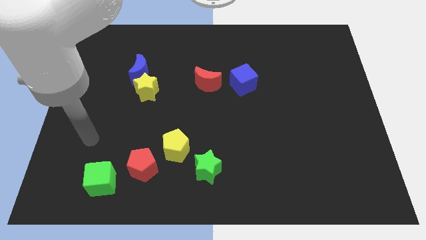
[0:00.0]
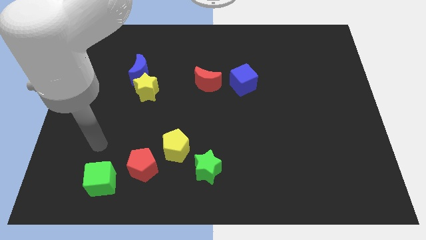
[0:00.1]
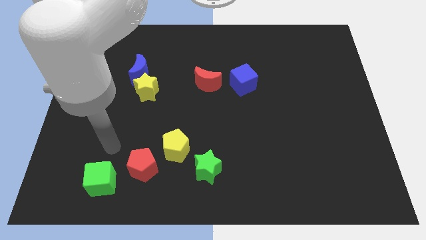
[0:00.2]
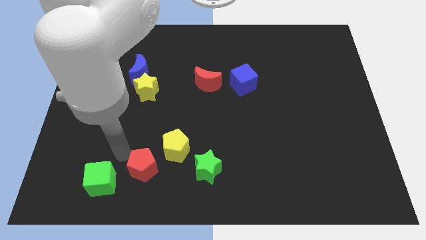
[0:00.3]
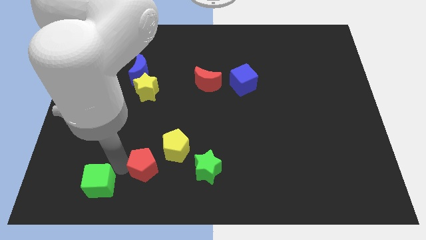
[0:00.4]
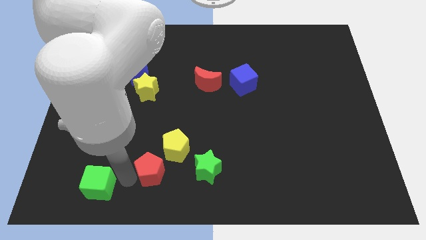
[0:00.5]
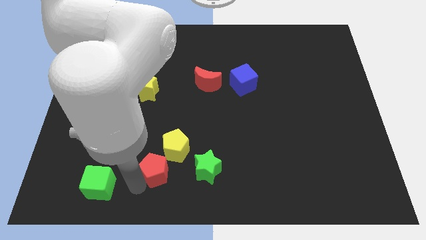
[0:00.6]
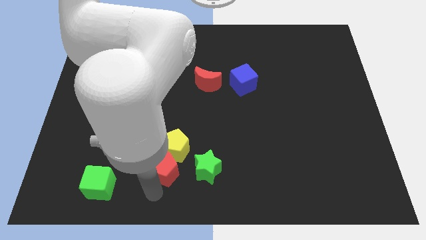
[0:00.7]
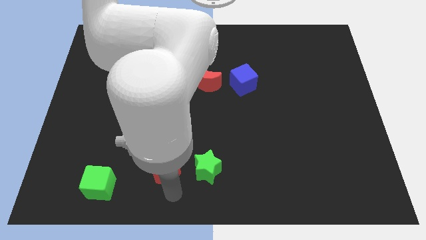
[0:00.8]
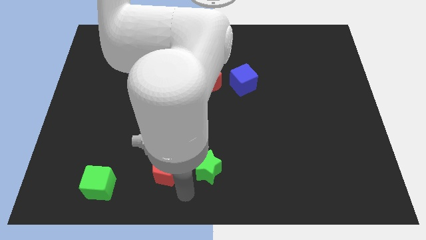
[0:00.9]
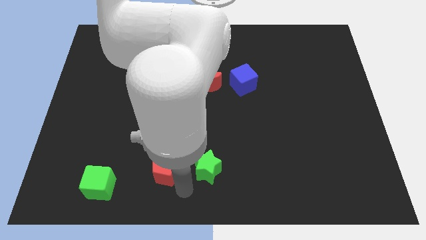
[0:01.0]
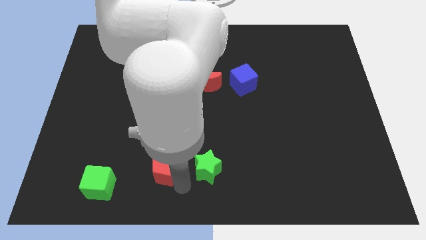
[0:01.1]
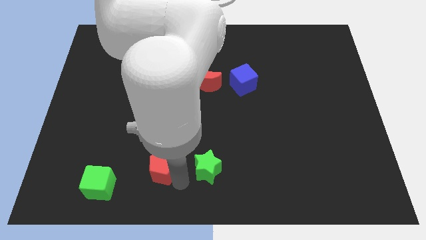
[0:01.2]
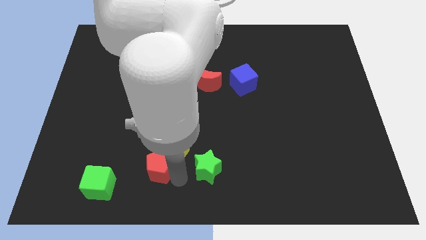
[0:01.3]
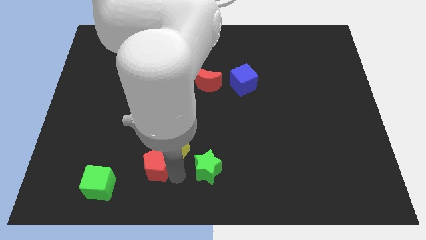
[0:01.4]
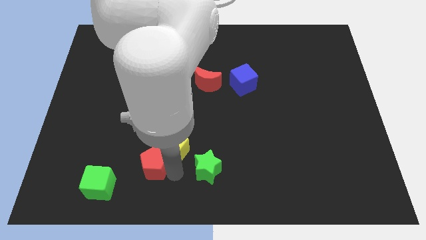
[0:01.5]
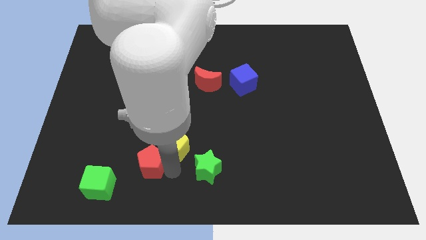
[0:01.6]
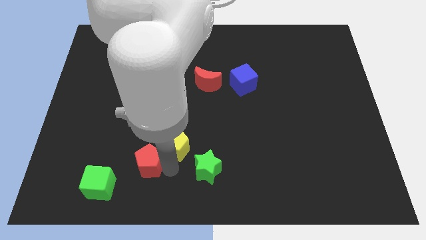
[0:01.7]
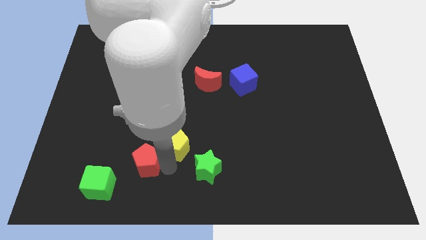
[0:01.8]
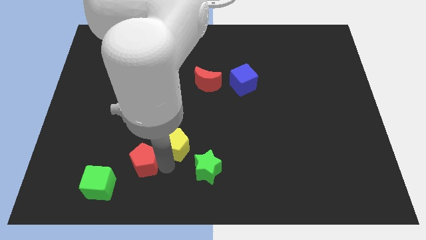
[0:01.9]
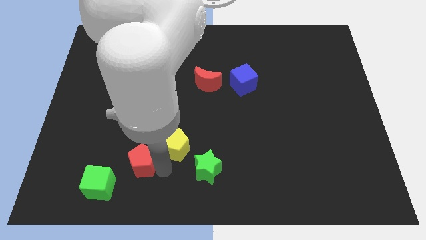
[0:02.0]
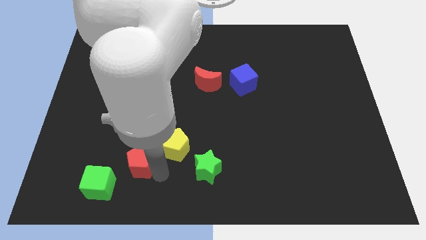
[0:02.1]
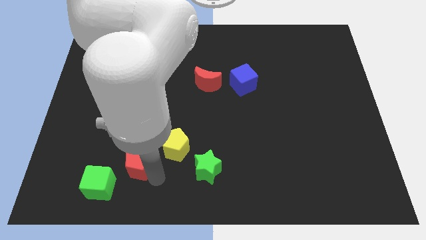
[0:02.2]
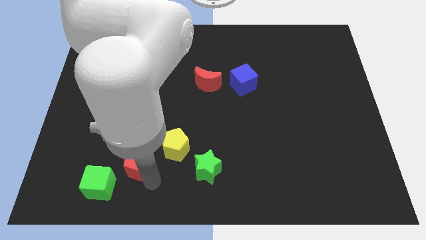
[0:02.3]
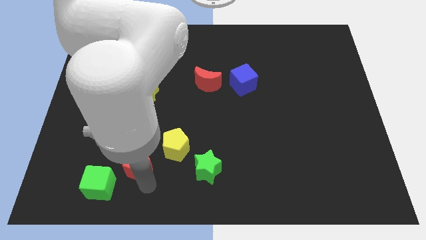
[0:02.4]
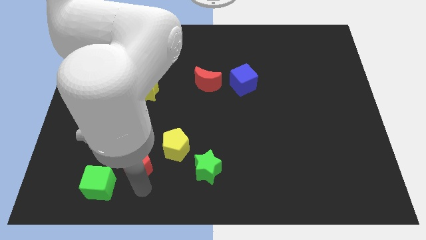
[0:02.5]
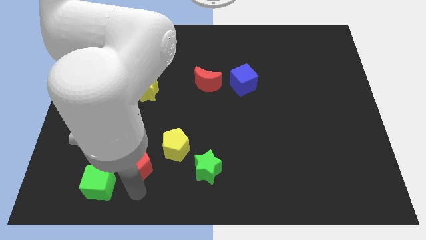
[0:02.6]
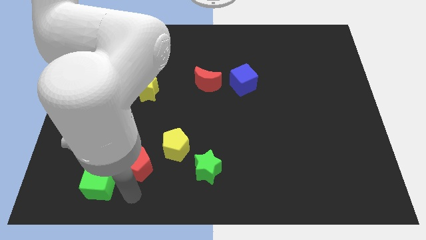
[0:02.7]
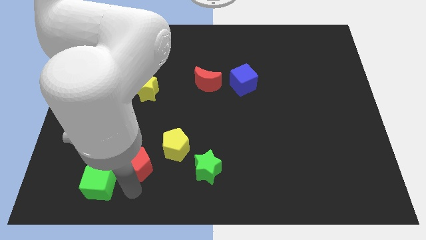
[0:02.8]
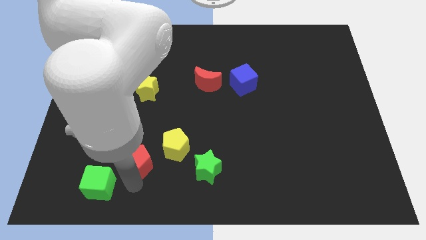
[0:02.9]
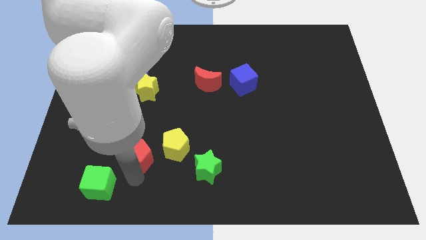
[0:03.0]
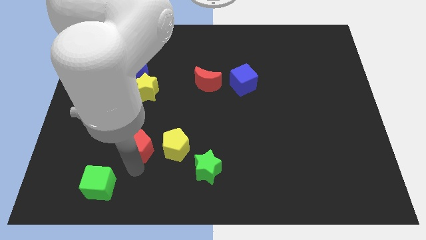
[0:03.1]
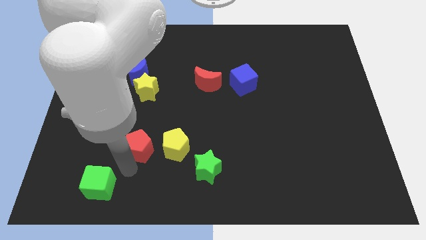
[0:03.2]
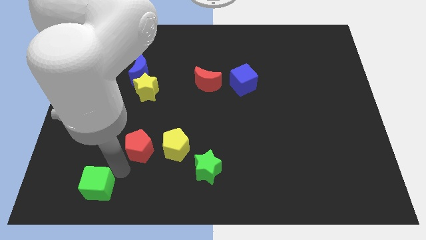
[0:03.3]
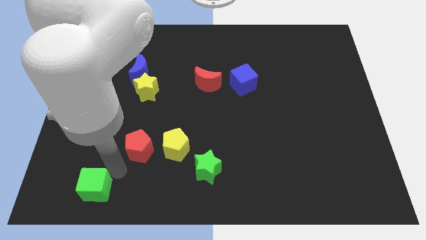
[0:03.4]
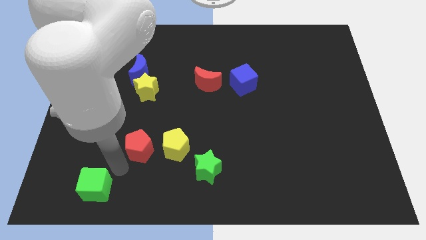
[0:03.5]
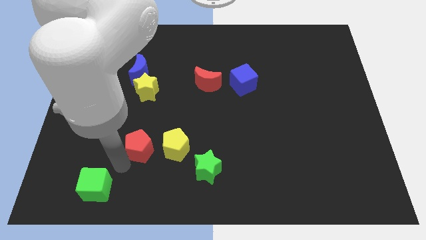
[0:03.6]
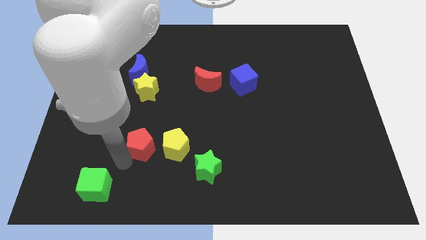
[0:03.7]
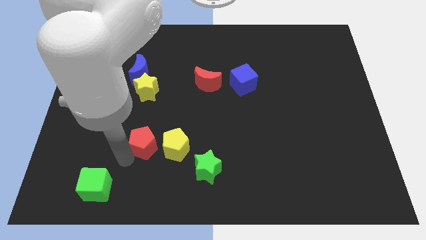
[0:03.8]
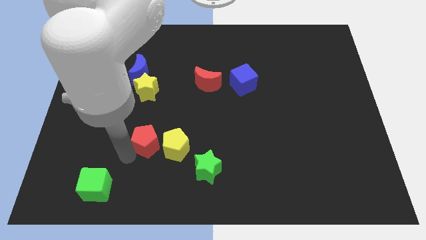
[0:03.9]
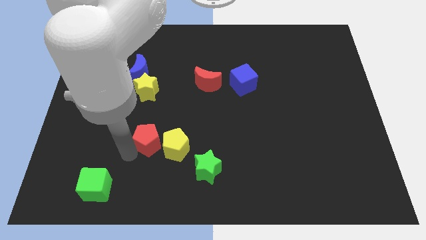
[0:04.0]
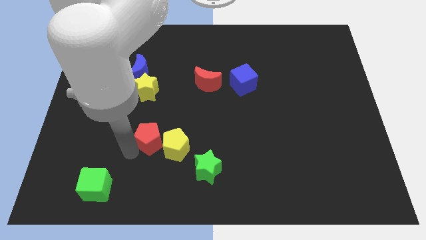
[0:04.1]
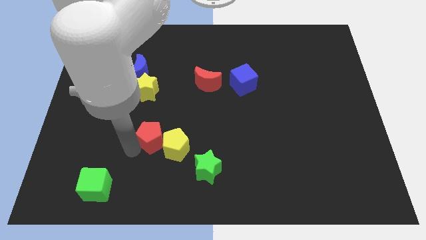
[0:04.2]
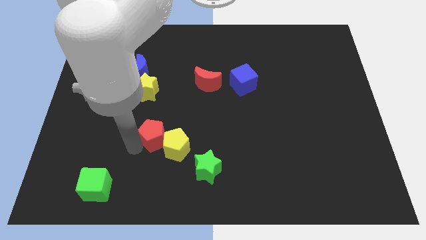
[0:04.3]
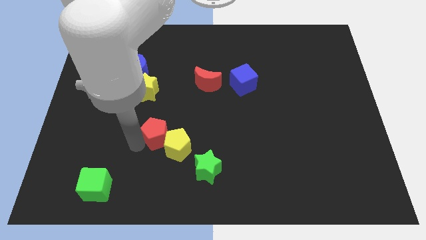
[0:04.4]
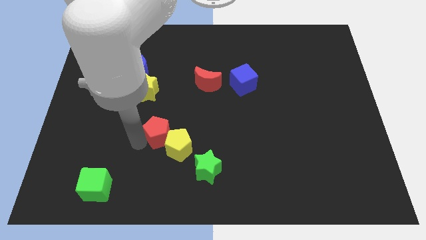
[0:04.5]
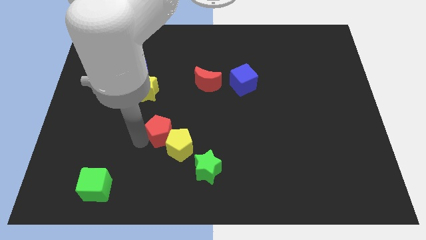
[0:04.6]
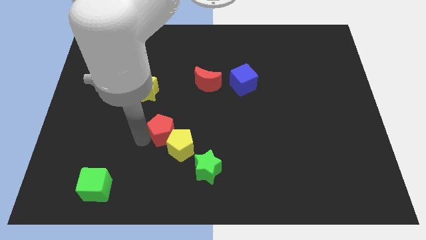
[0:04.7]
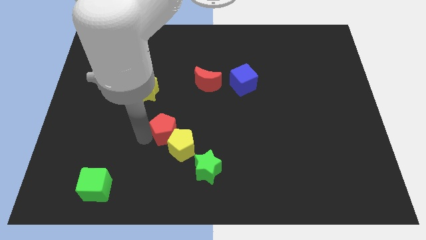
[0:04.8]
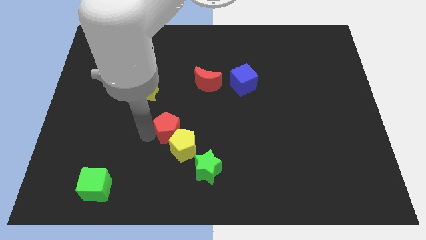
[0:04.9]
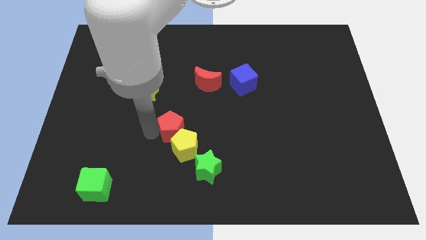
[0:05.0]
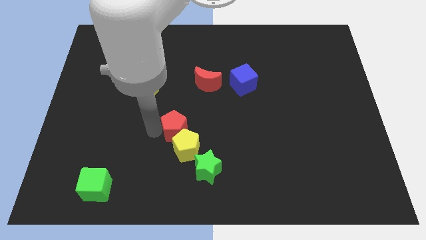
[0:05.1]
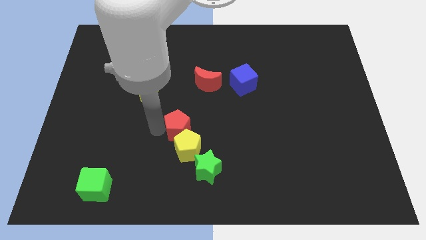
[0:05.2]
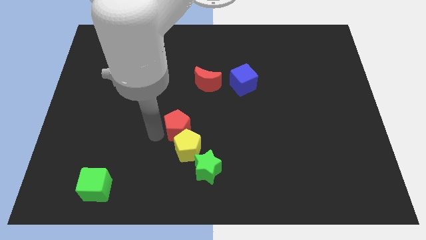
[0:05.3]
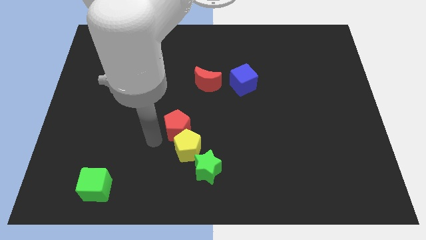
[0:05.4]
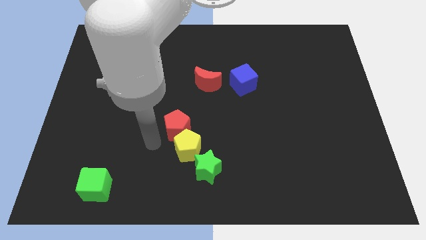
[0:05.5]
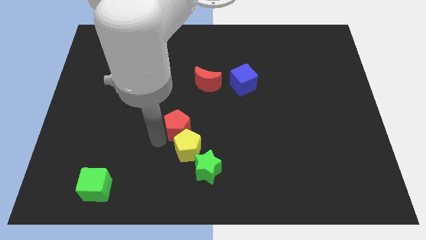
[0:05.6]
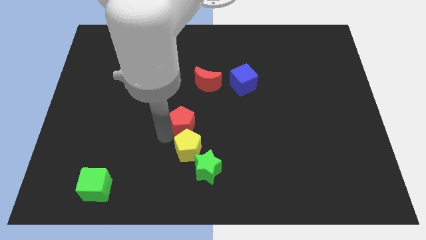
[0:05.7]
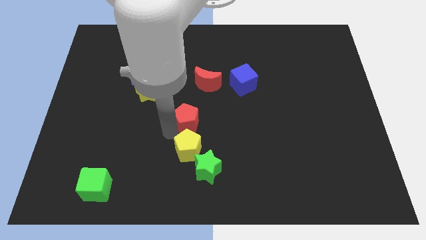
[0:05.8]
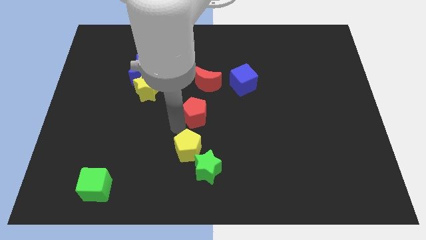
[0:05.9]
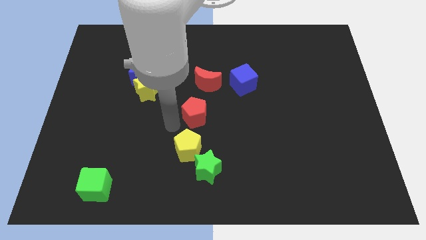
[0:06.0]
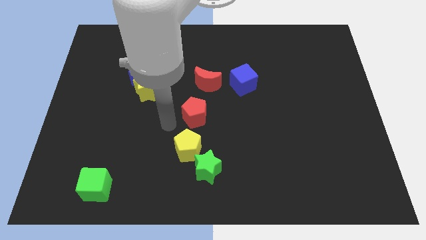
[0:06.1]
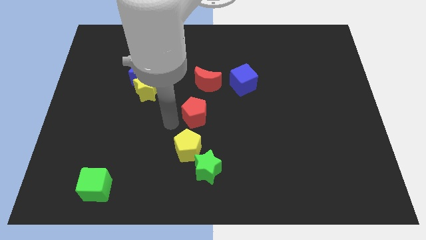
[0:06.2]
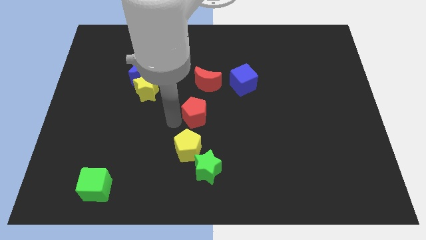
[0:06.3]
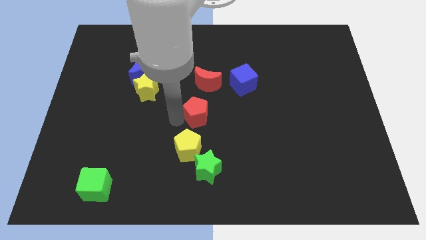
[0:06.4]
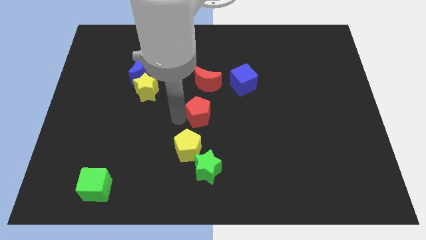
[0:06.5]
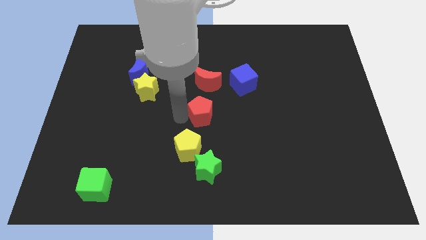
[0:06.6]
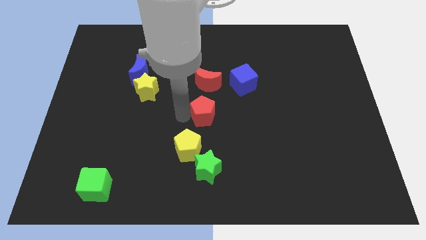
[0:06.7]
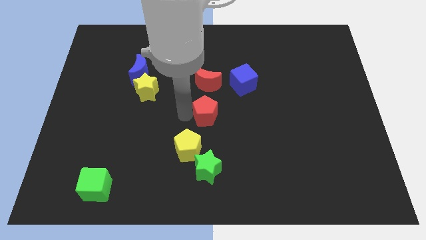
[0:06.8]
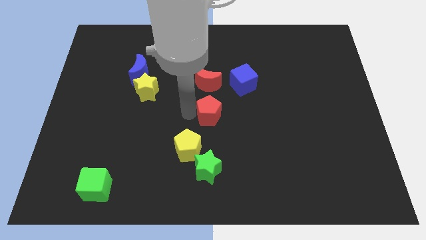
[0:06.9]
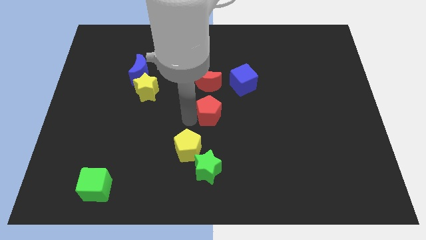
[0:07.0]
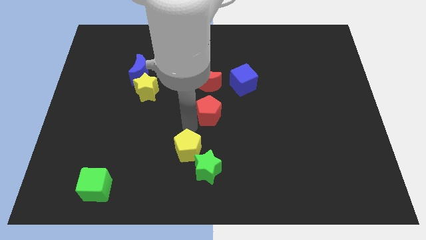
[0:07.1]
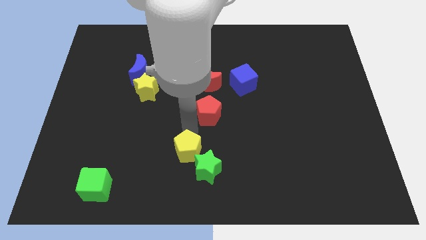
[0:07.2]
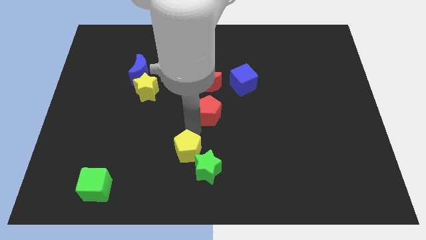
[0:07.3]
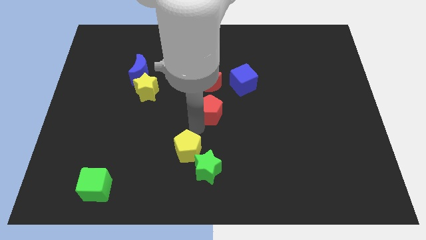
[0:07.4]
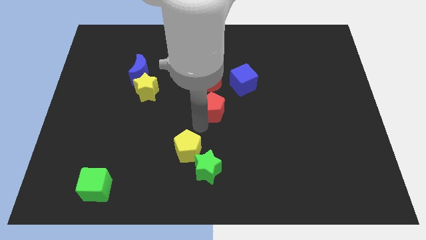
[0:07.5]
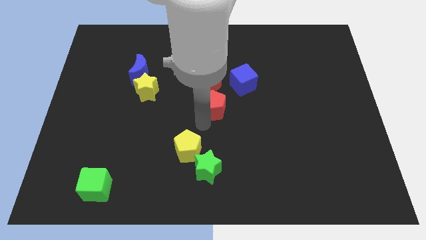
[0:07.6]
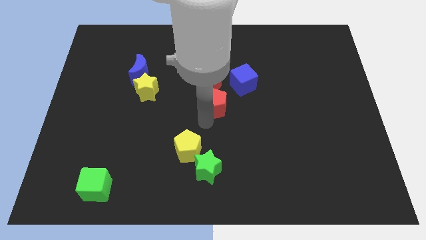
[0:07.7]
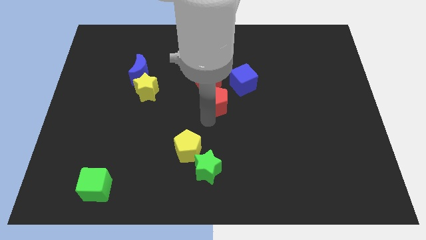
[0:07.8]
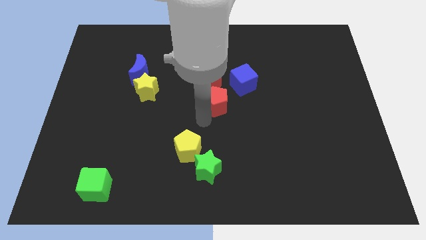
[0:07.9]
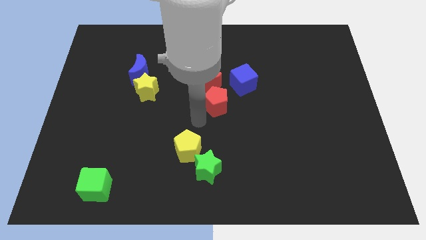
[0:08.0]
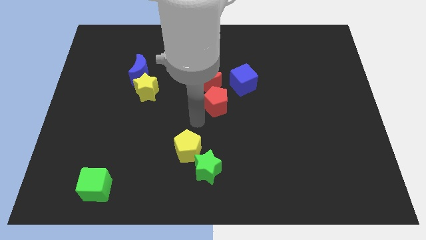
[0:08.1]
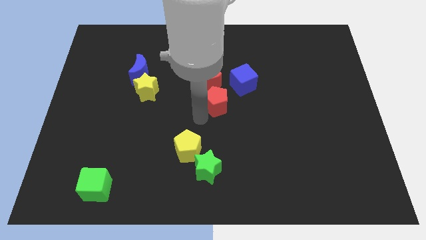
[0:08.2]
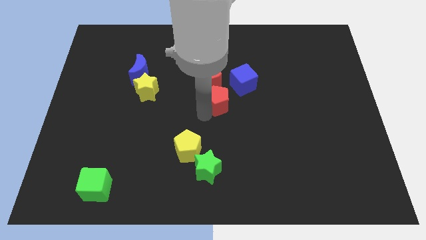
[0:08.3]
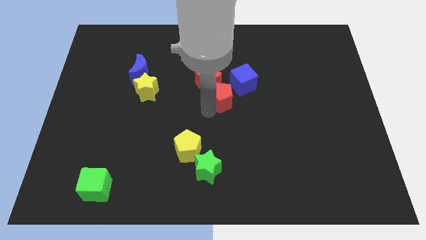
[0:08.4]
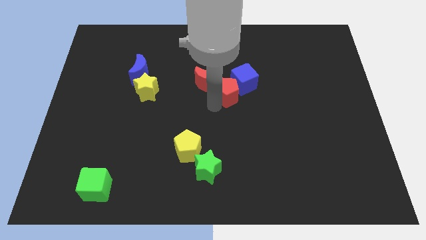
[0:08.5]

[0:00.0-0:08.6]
push the red pentagon to the blue cube
